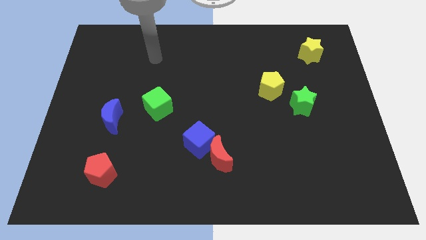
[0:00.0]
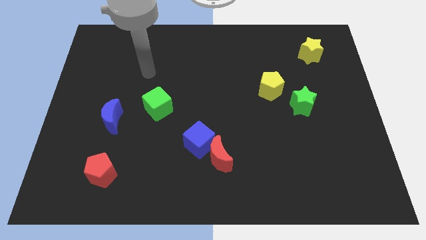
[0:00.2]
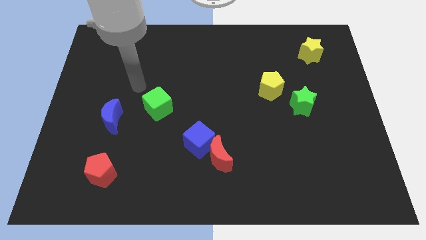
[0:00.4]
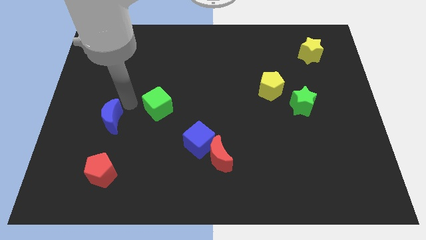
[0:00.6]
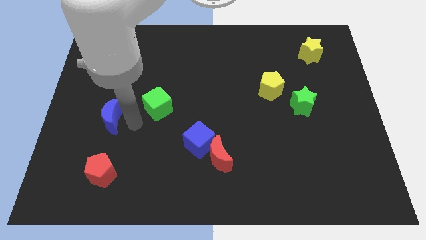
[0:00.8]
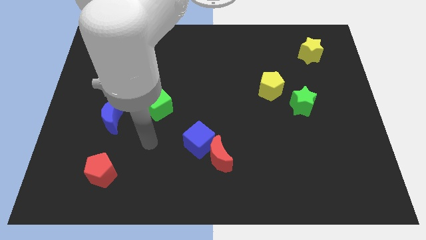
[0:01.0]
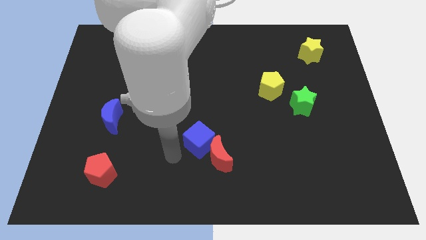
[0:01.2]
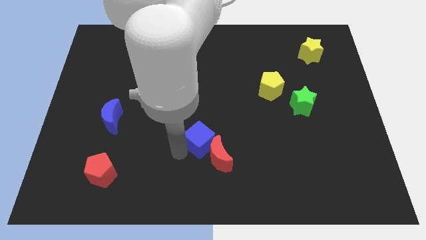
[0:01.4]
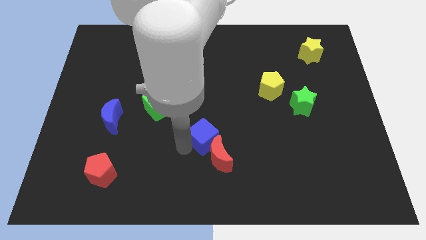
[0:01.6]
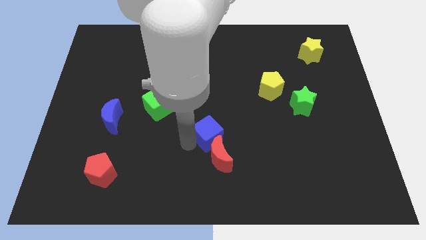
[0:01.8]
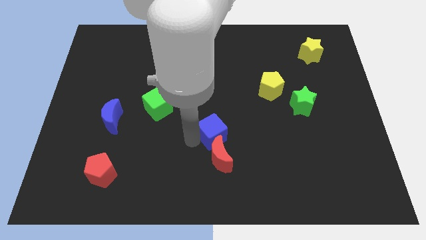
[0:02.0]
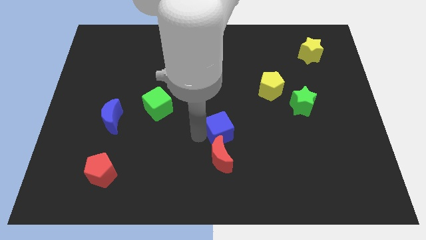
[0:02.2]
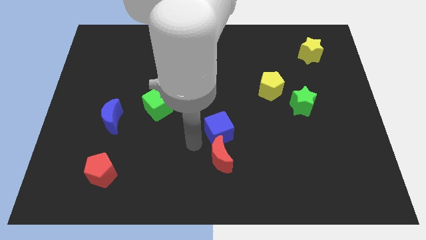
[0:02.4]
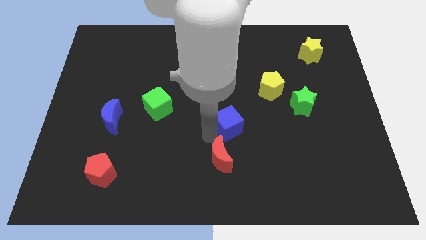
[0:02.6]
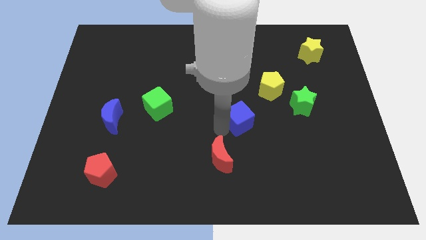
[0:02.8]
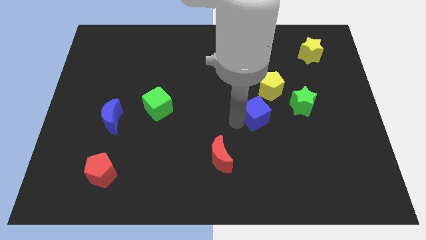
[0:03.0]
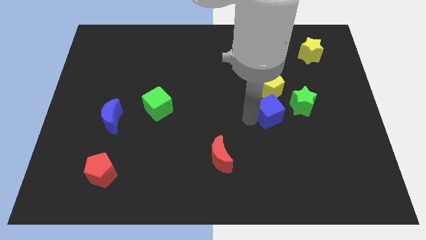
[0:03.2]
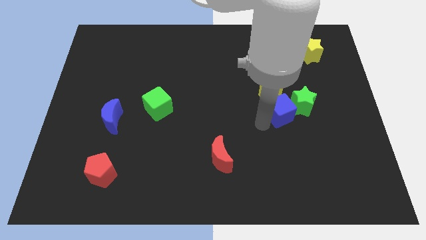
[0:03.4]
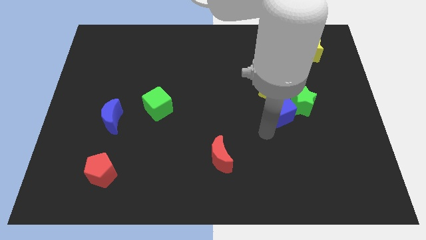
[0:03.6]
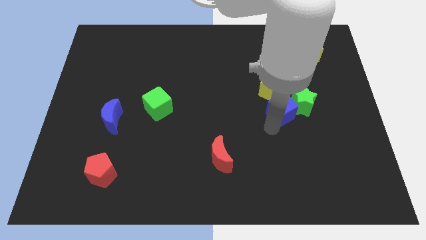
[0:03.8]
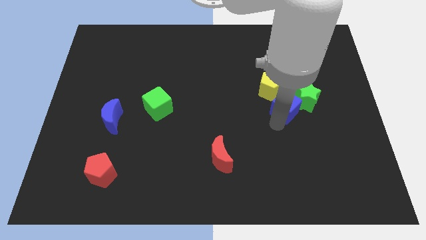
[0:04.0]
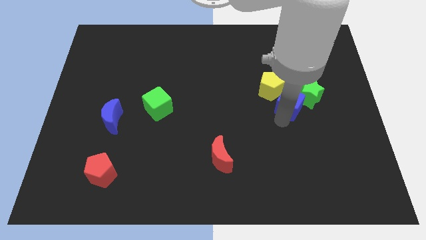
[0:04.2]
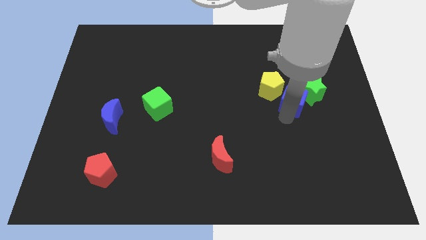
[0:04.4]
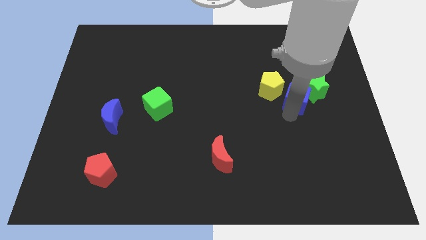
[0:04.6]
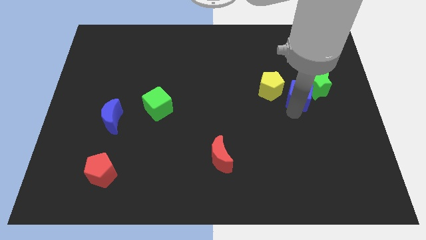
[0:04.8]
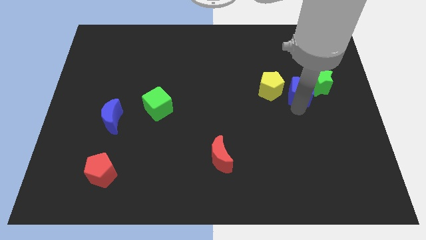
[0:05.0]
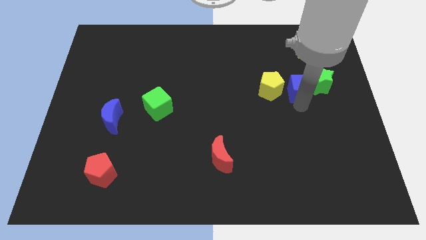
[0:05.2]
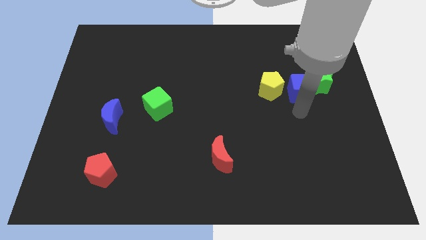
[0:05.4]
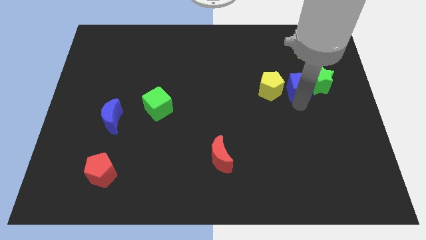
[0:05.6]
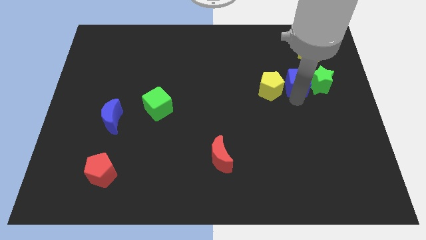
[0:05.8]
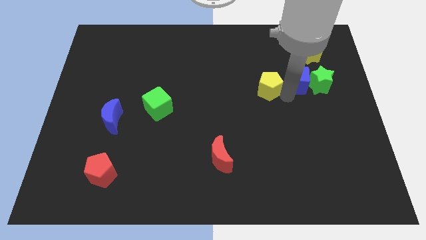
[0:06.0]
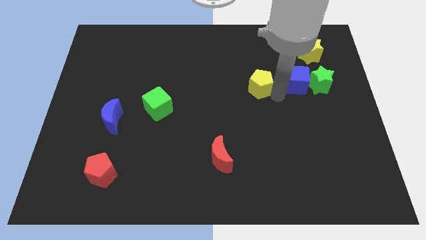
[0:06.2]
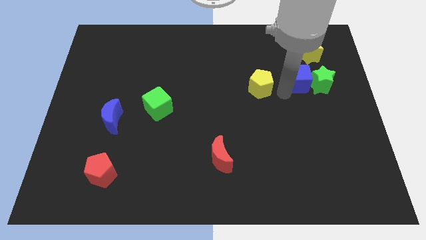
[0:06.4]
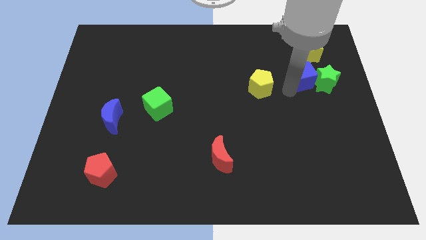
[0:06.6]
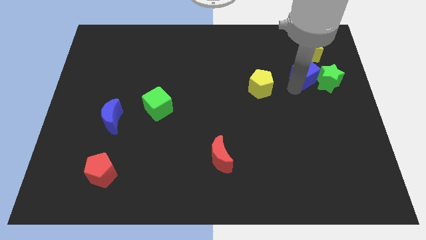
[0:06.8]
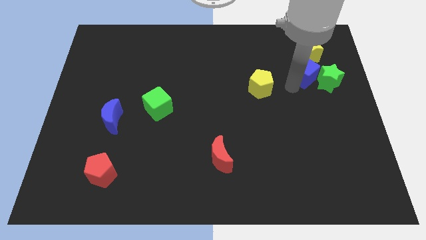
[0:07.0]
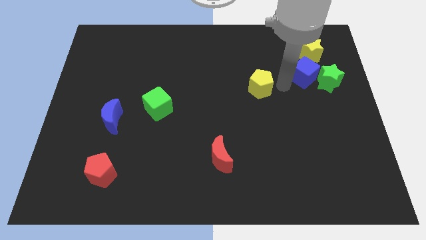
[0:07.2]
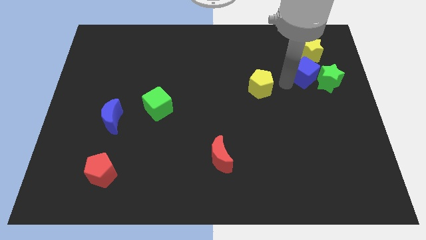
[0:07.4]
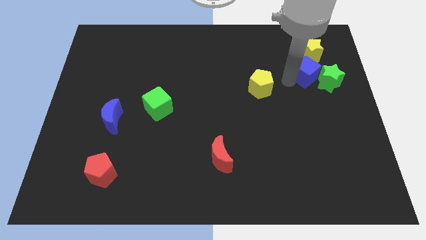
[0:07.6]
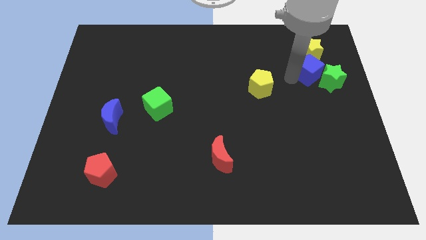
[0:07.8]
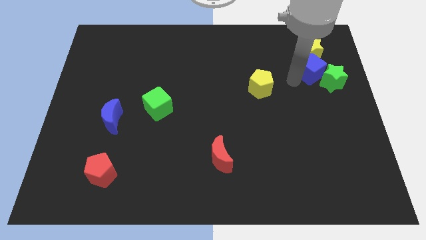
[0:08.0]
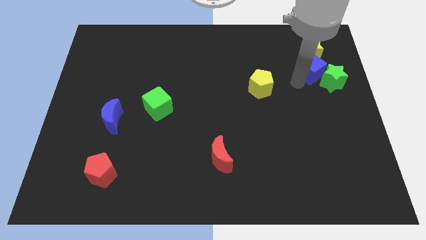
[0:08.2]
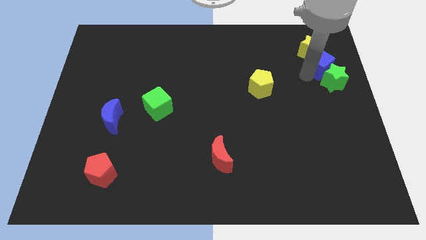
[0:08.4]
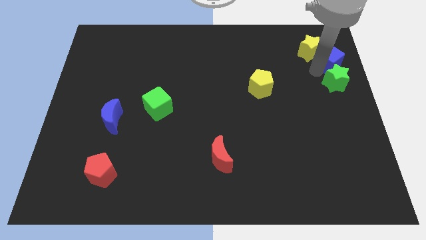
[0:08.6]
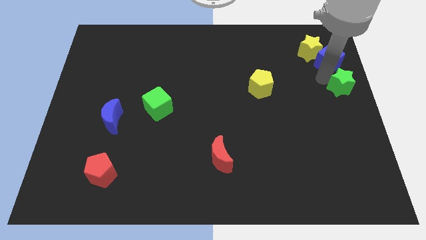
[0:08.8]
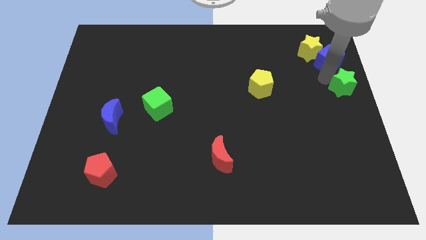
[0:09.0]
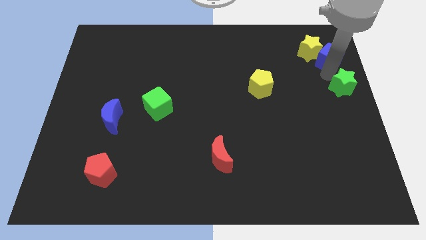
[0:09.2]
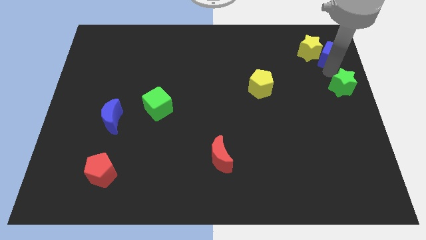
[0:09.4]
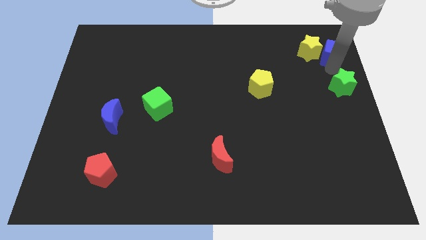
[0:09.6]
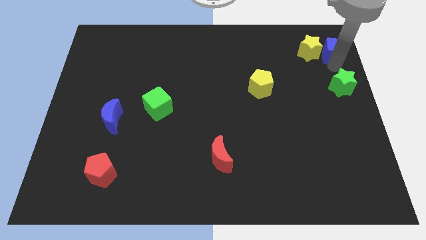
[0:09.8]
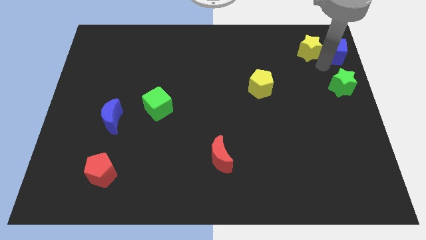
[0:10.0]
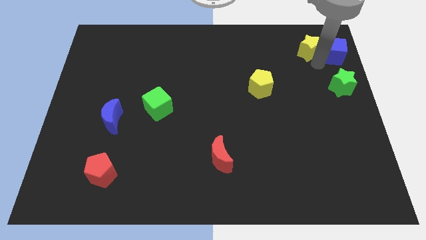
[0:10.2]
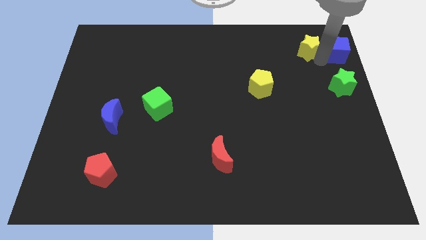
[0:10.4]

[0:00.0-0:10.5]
move the blue cube to the top right of the board

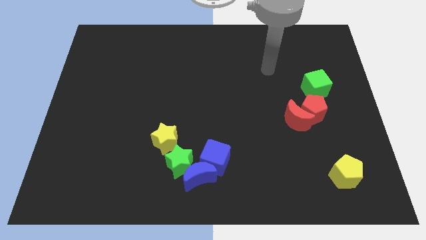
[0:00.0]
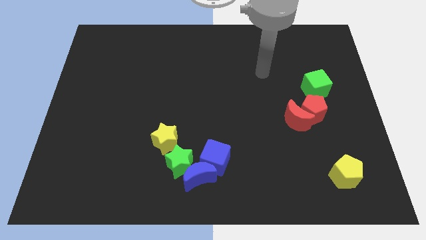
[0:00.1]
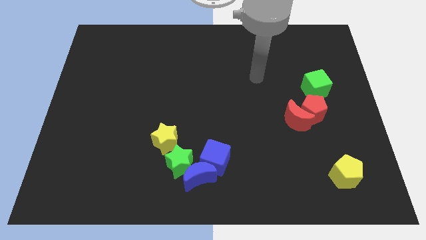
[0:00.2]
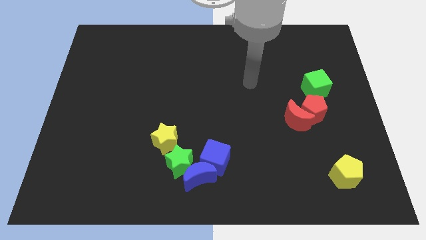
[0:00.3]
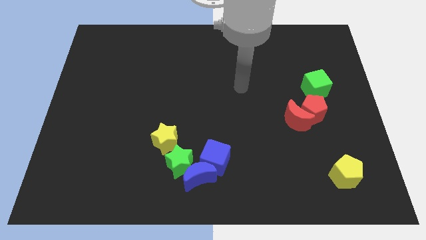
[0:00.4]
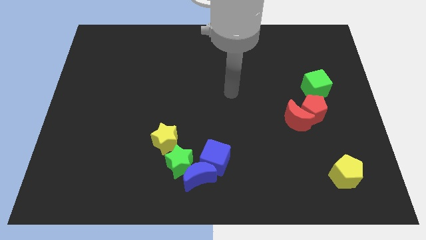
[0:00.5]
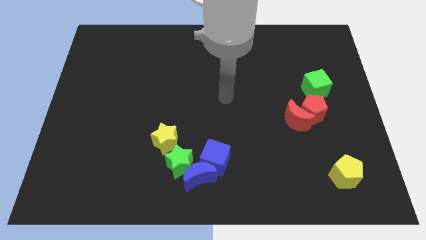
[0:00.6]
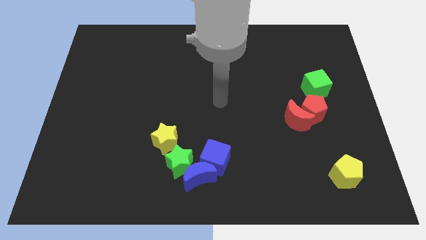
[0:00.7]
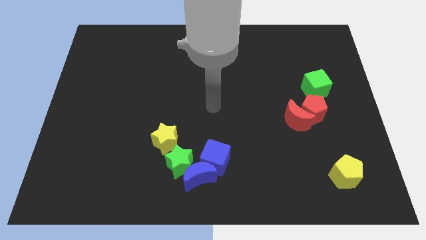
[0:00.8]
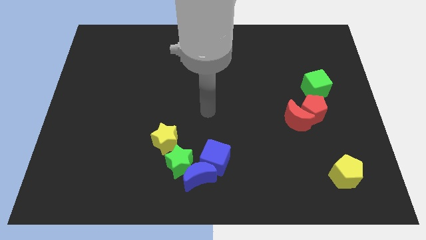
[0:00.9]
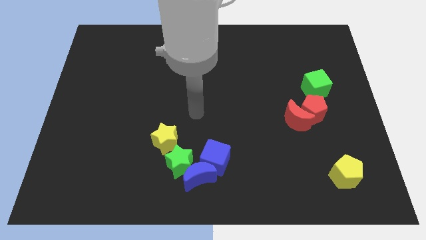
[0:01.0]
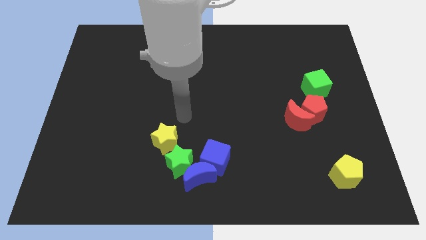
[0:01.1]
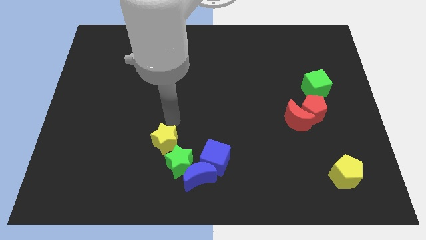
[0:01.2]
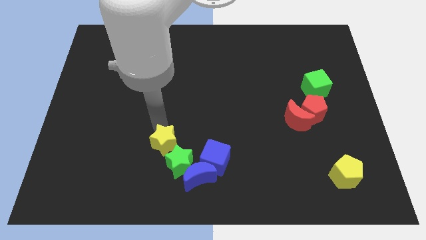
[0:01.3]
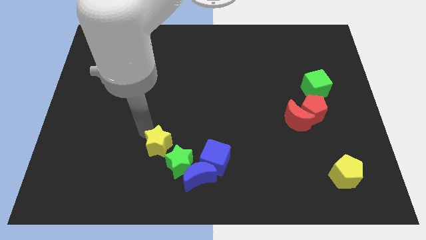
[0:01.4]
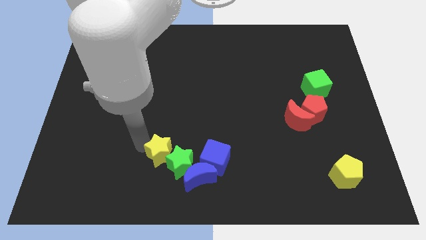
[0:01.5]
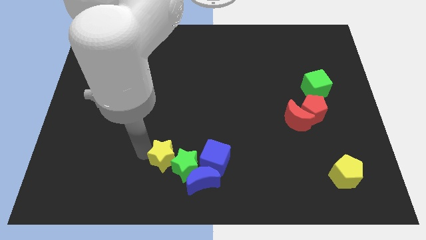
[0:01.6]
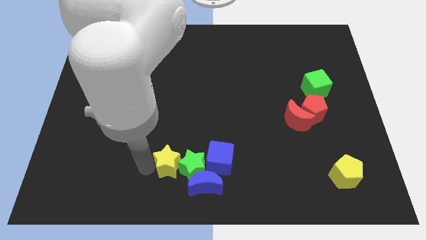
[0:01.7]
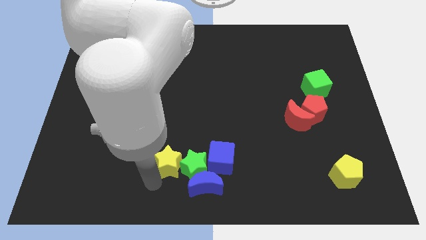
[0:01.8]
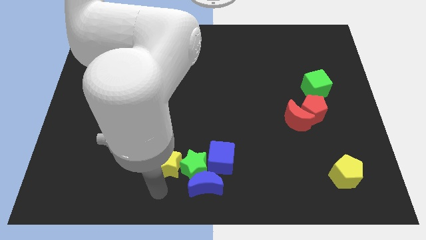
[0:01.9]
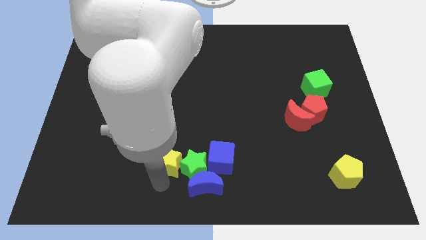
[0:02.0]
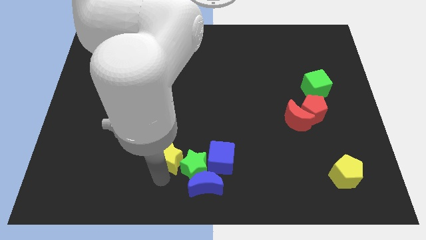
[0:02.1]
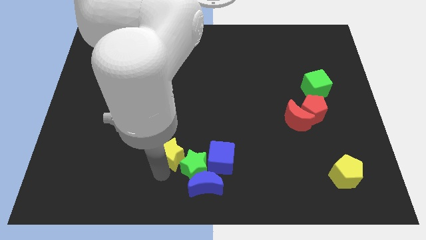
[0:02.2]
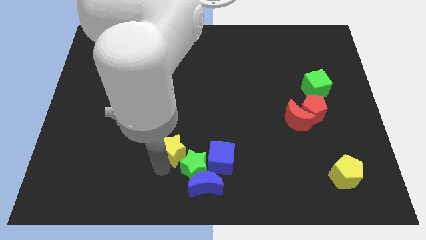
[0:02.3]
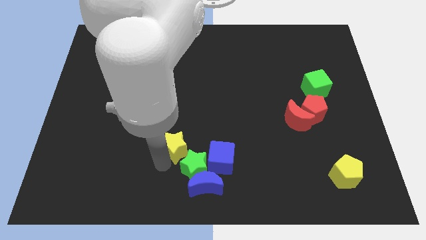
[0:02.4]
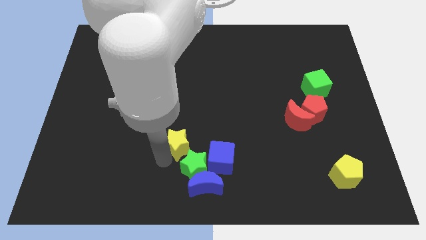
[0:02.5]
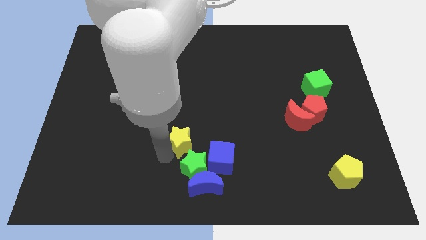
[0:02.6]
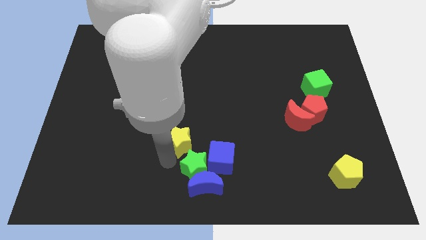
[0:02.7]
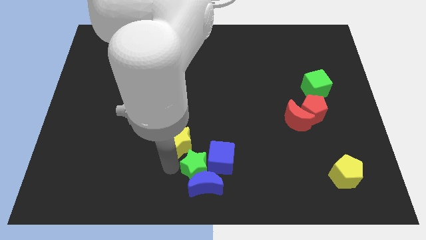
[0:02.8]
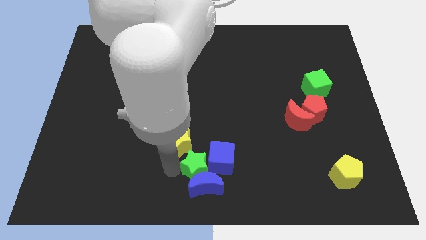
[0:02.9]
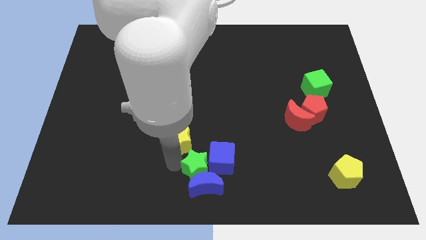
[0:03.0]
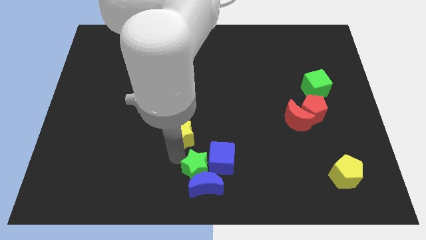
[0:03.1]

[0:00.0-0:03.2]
put the yellow star to the center of the board
